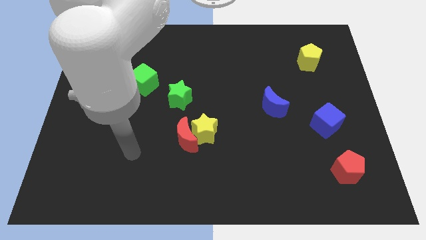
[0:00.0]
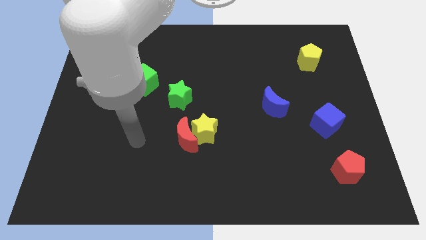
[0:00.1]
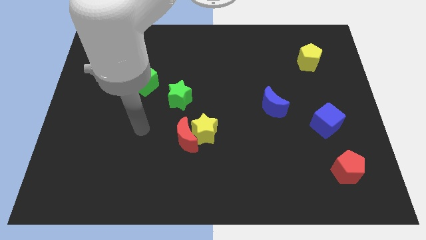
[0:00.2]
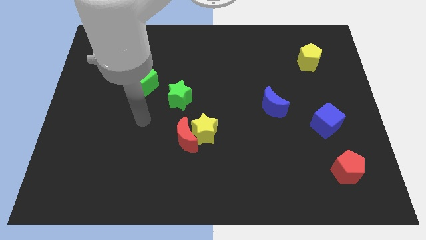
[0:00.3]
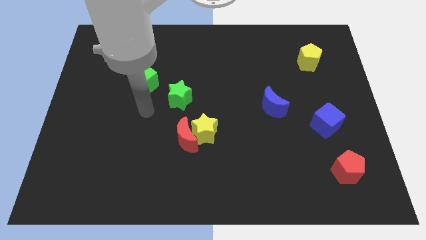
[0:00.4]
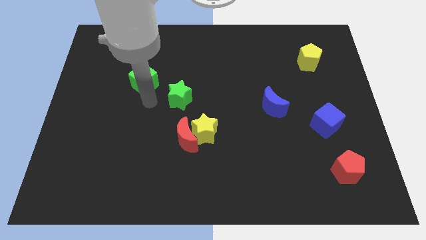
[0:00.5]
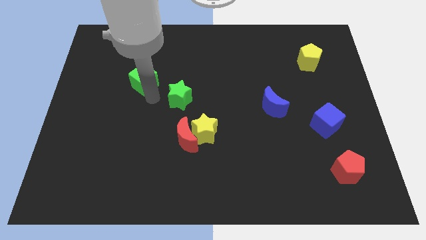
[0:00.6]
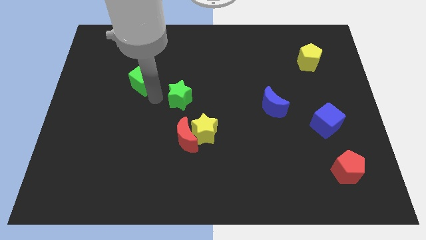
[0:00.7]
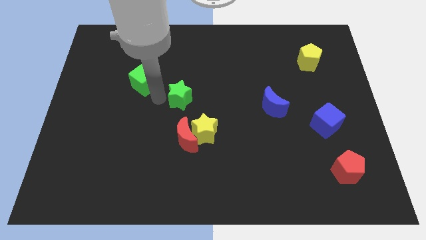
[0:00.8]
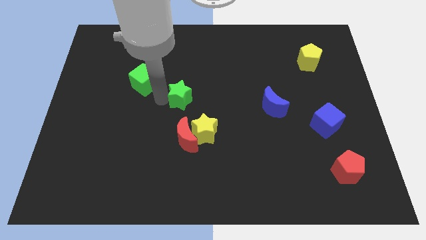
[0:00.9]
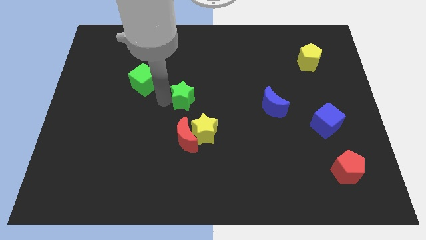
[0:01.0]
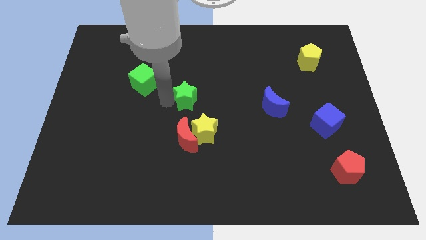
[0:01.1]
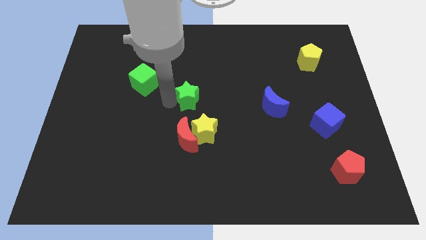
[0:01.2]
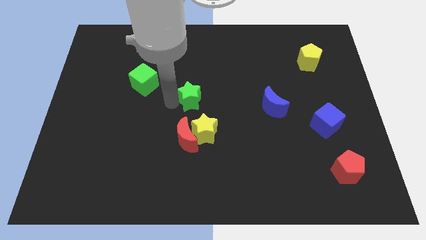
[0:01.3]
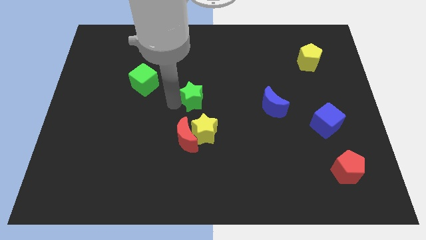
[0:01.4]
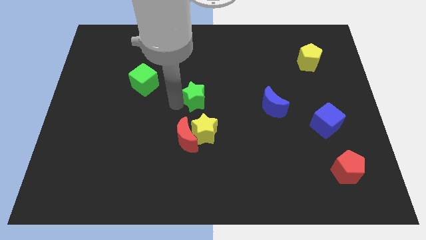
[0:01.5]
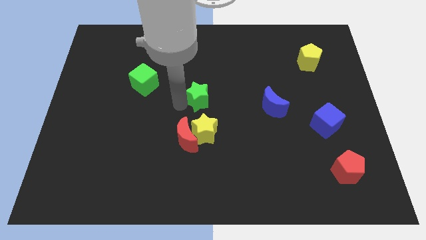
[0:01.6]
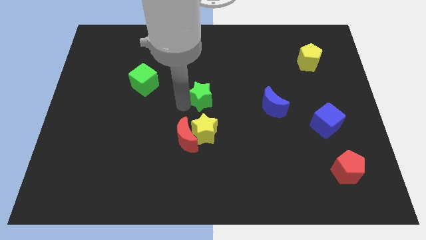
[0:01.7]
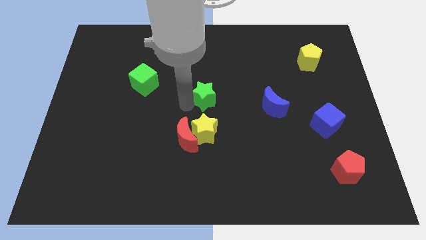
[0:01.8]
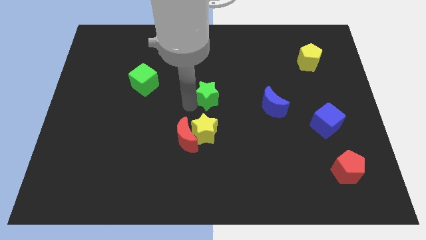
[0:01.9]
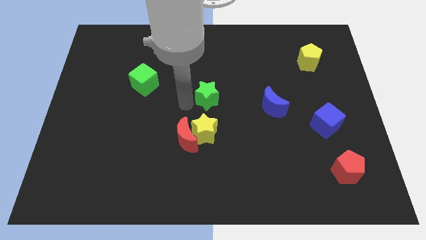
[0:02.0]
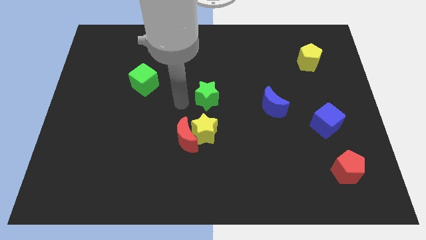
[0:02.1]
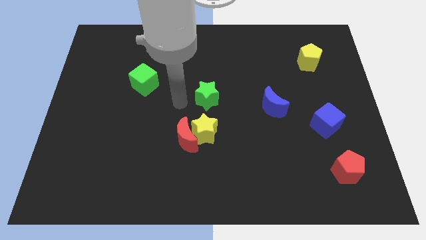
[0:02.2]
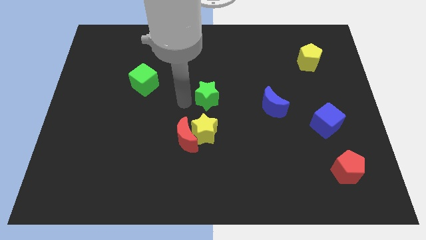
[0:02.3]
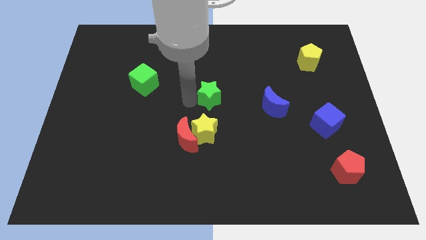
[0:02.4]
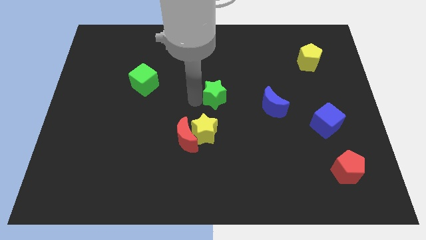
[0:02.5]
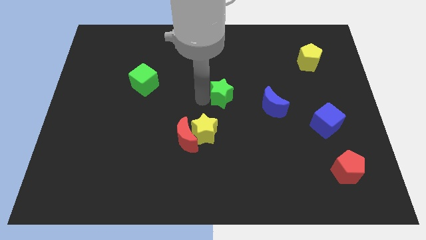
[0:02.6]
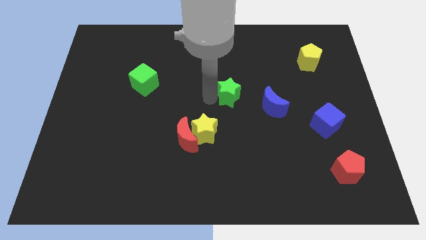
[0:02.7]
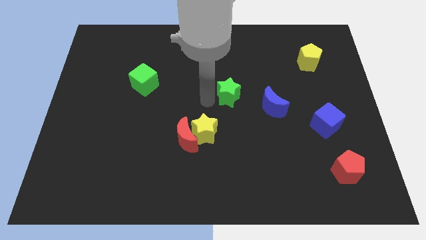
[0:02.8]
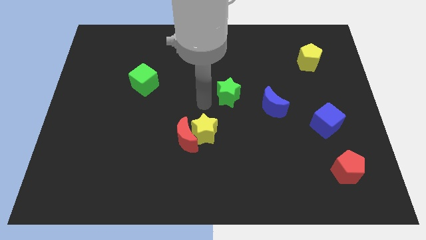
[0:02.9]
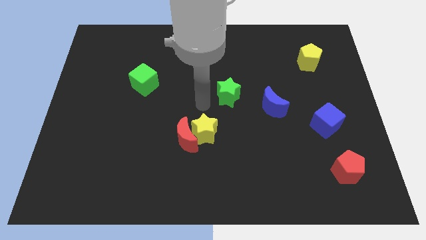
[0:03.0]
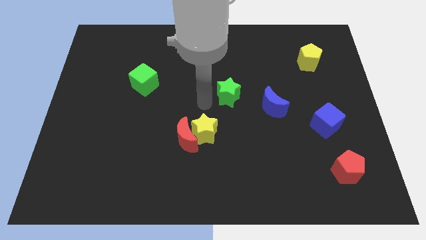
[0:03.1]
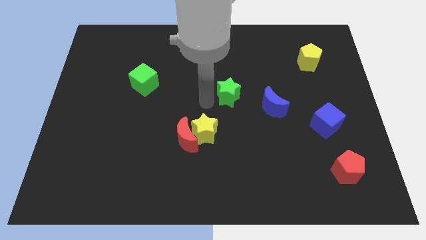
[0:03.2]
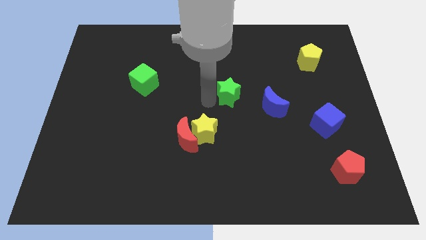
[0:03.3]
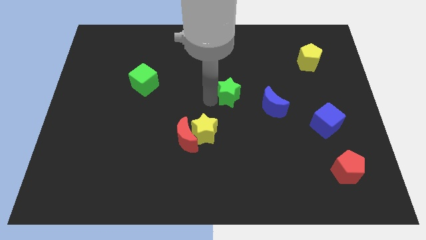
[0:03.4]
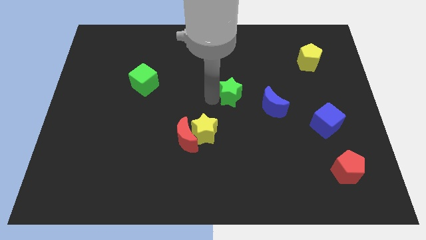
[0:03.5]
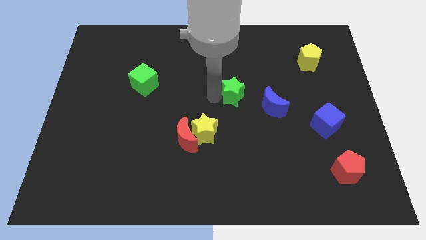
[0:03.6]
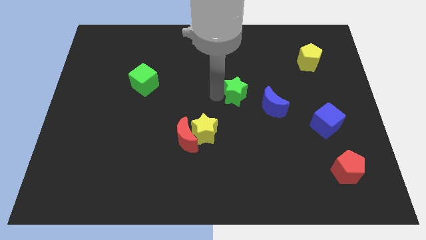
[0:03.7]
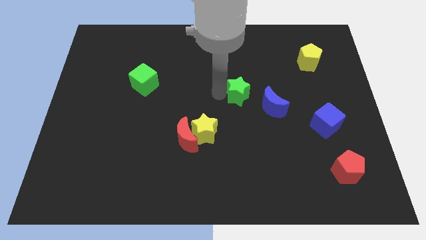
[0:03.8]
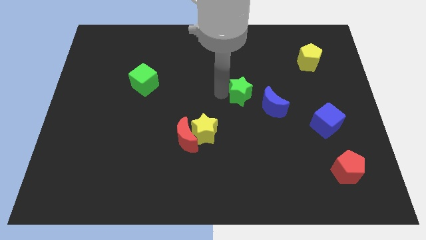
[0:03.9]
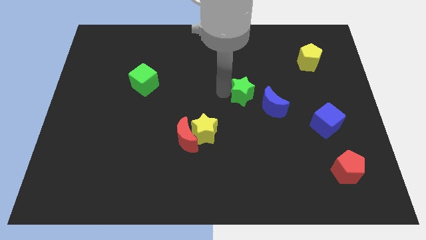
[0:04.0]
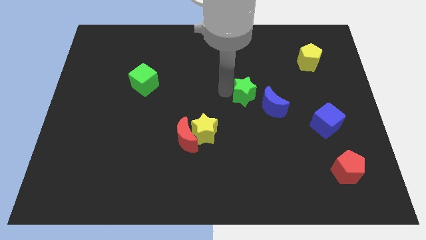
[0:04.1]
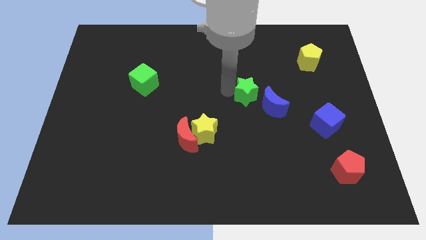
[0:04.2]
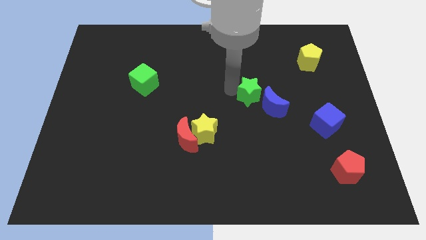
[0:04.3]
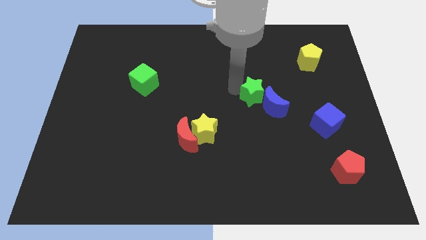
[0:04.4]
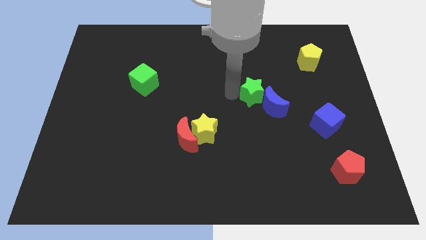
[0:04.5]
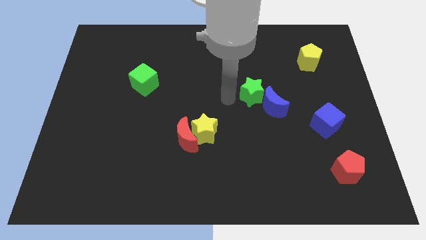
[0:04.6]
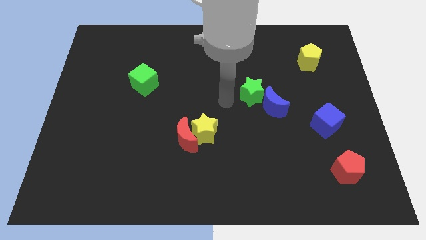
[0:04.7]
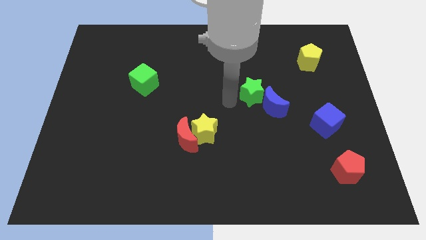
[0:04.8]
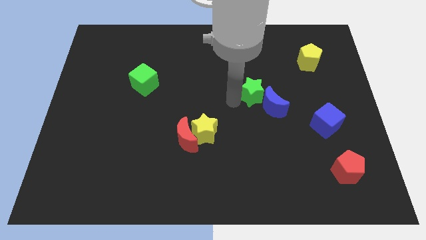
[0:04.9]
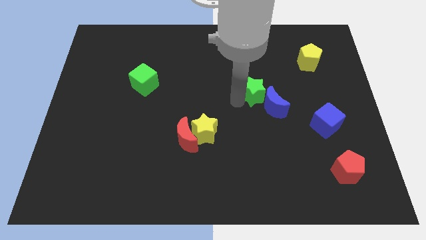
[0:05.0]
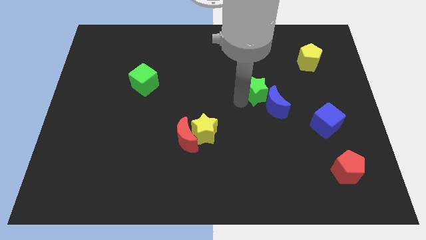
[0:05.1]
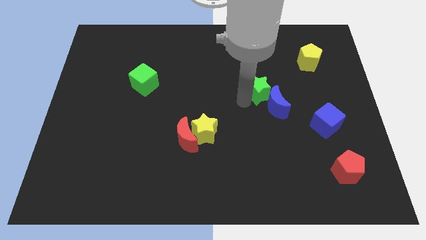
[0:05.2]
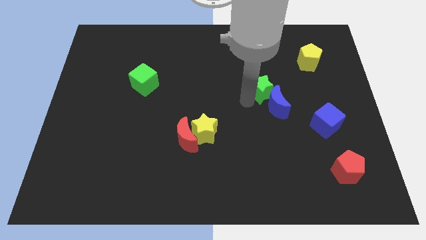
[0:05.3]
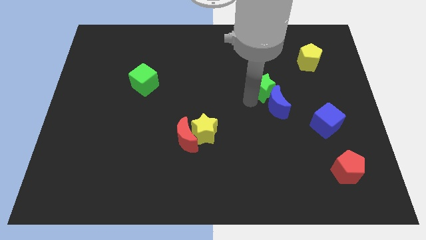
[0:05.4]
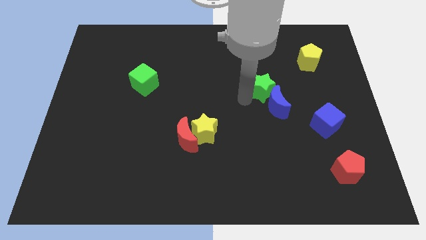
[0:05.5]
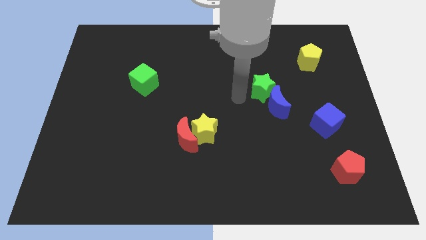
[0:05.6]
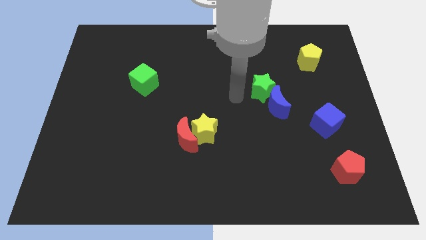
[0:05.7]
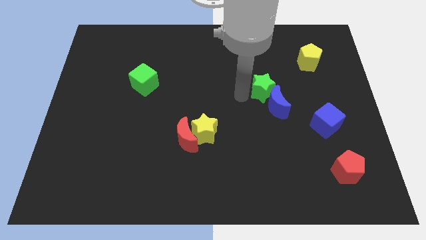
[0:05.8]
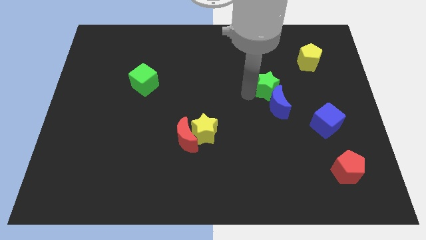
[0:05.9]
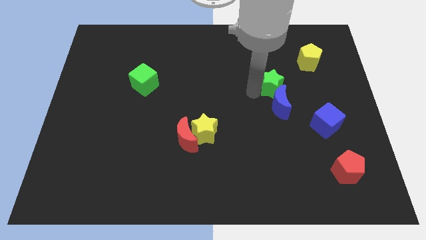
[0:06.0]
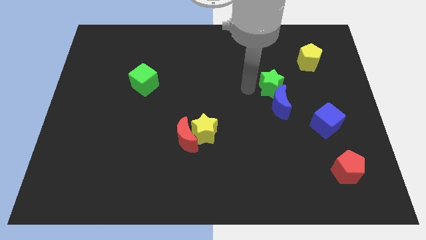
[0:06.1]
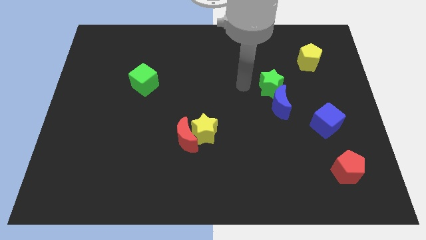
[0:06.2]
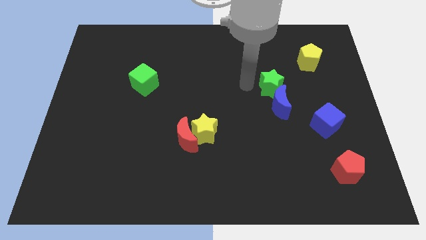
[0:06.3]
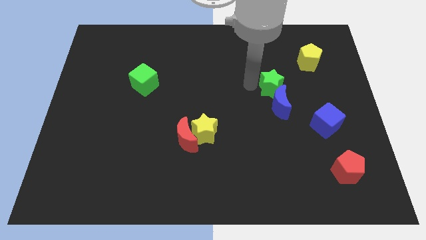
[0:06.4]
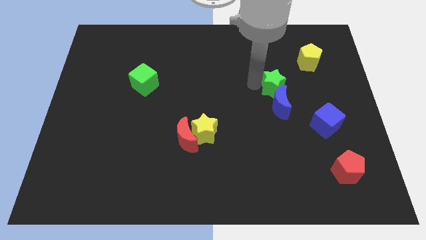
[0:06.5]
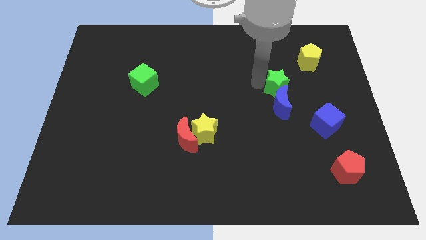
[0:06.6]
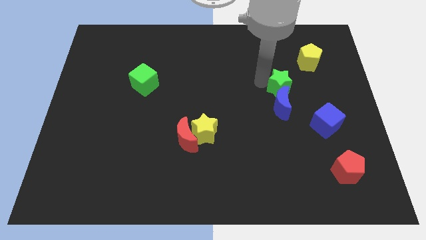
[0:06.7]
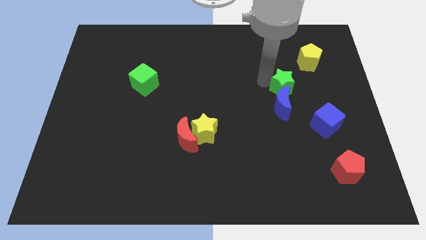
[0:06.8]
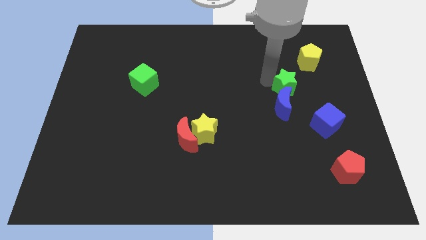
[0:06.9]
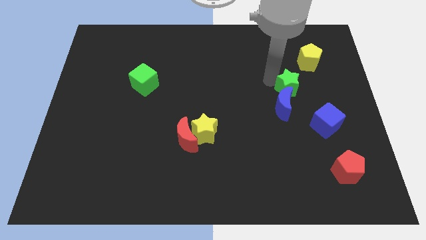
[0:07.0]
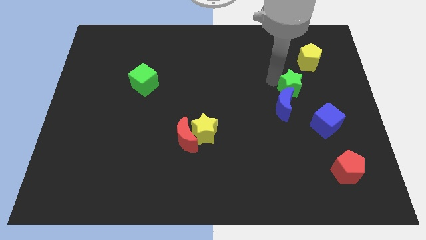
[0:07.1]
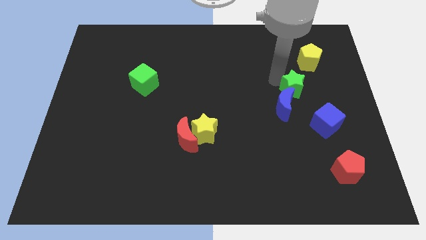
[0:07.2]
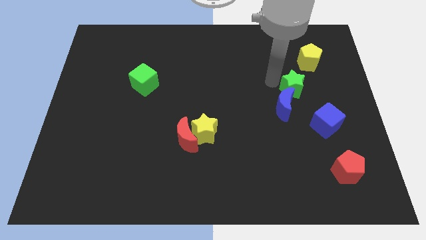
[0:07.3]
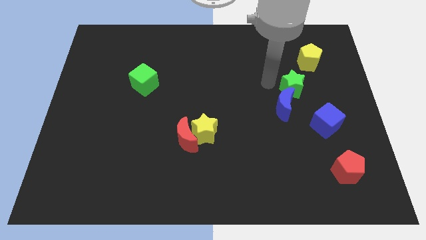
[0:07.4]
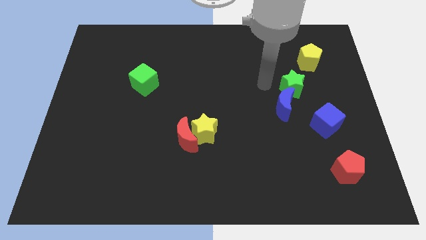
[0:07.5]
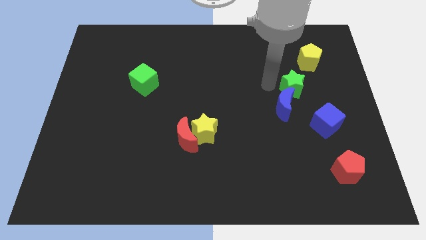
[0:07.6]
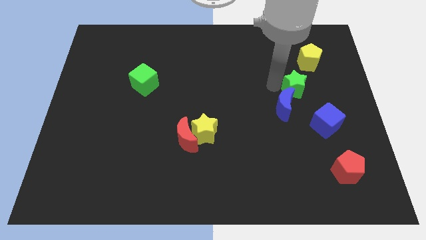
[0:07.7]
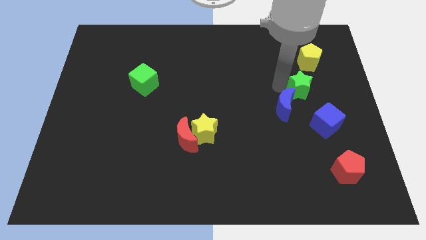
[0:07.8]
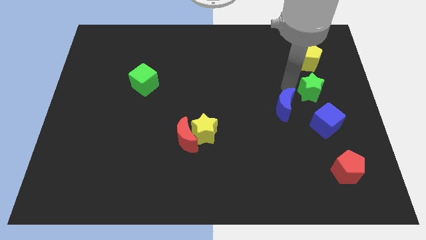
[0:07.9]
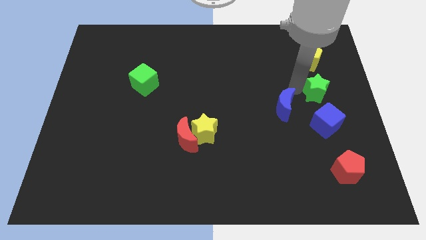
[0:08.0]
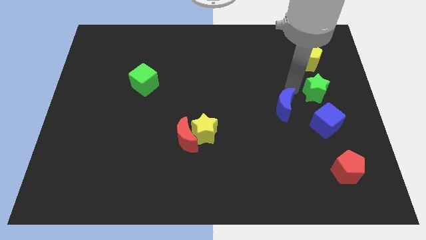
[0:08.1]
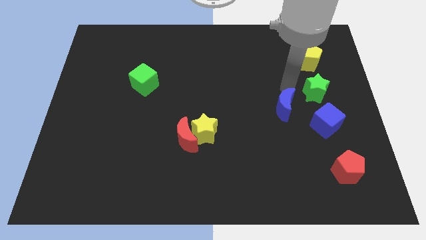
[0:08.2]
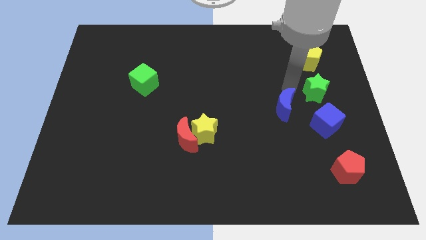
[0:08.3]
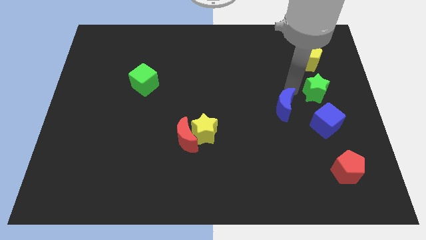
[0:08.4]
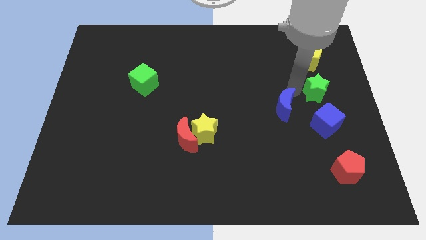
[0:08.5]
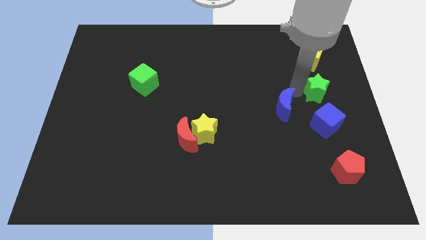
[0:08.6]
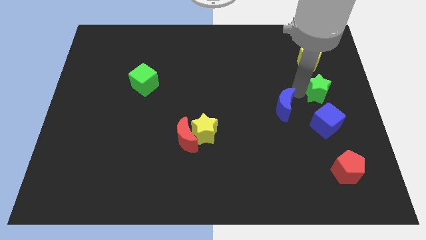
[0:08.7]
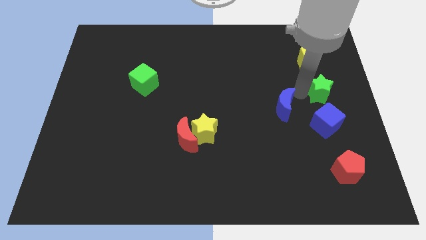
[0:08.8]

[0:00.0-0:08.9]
push the green star to the center right
